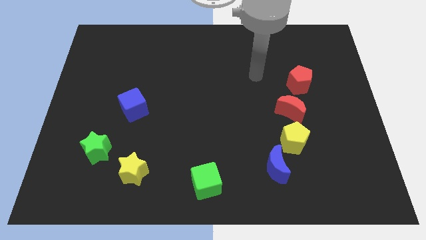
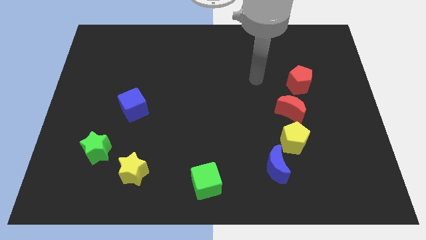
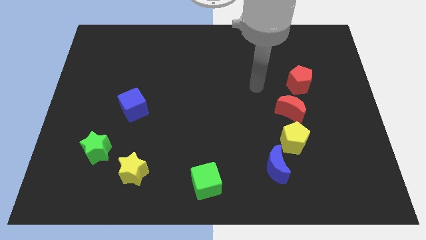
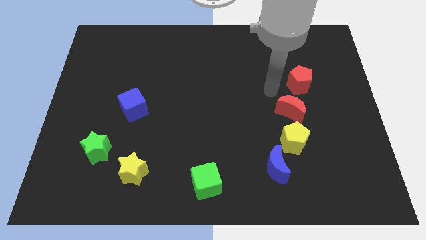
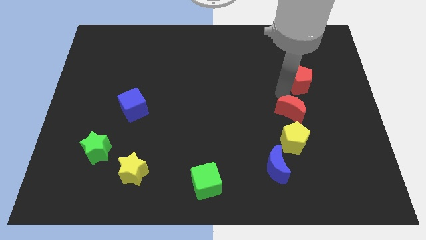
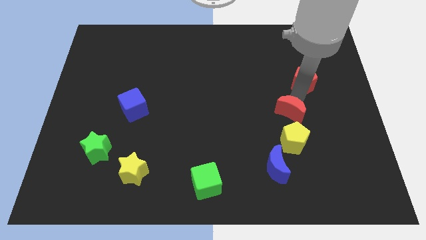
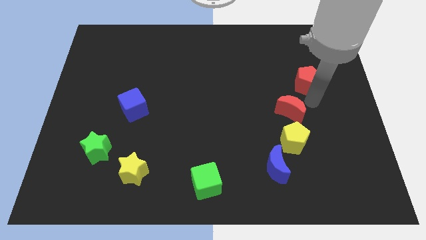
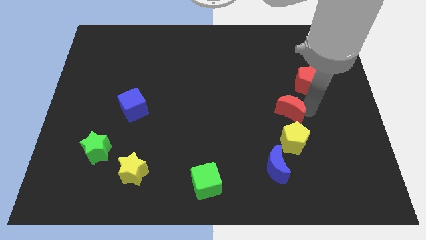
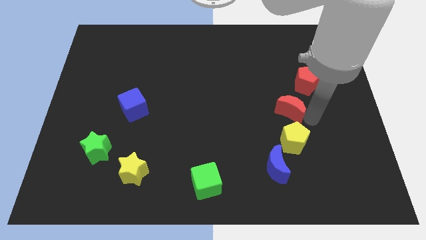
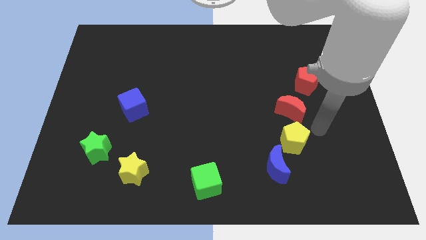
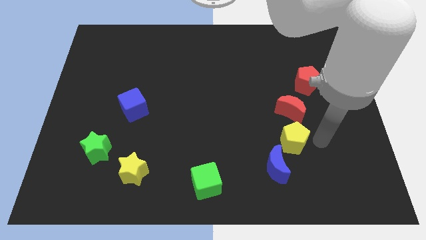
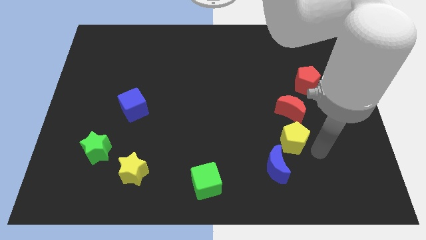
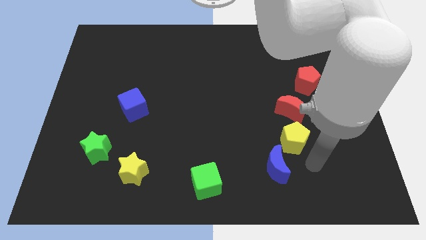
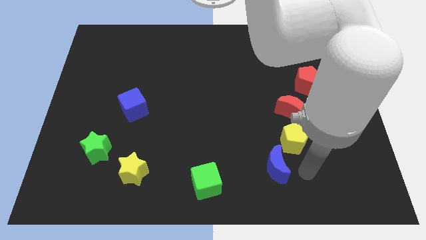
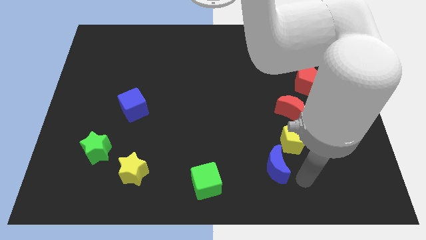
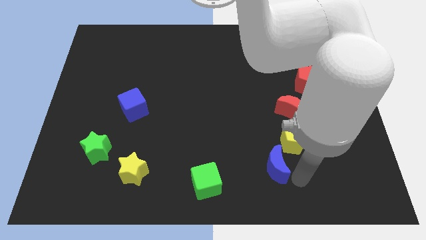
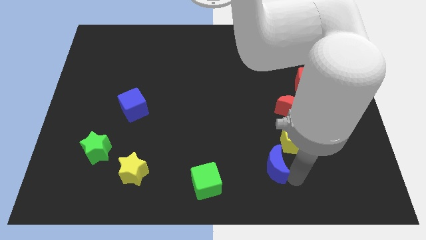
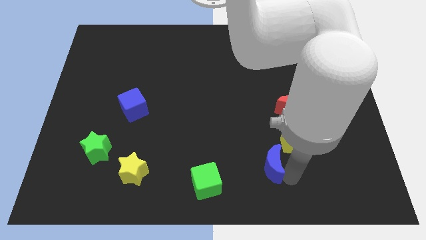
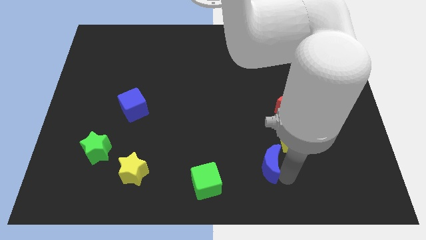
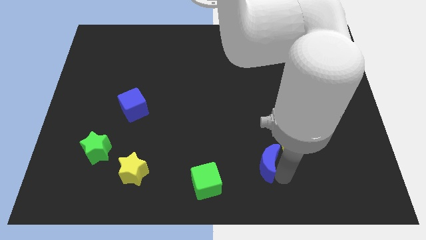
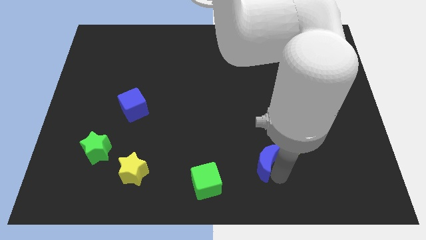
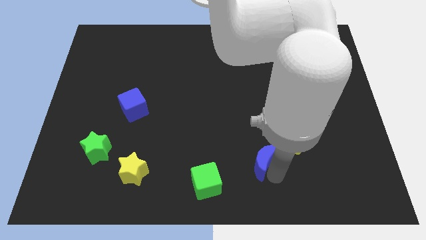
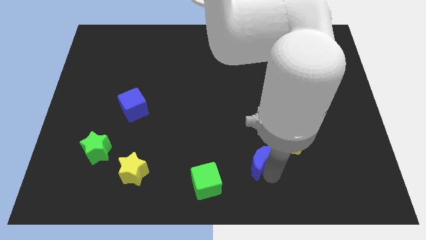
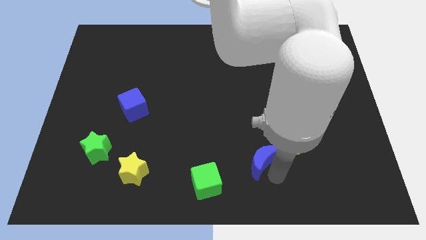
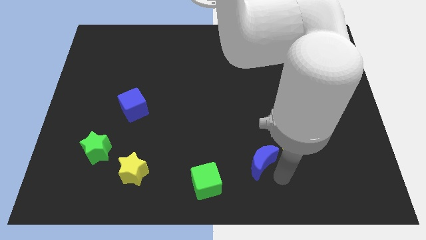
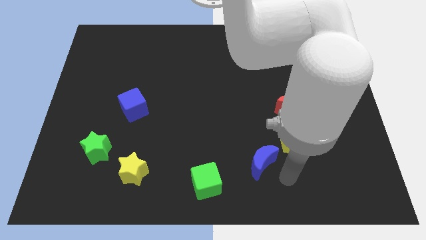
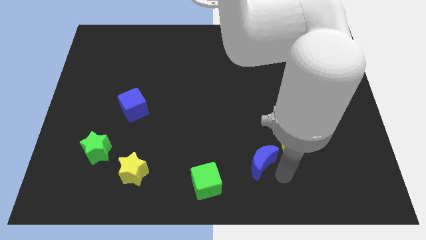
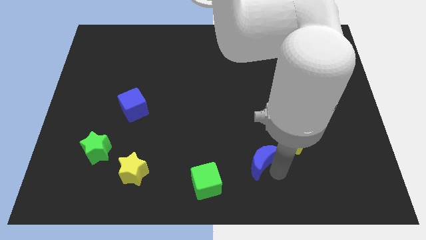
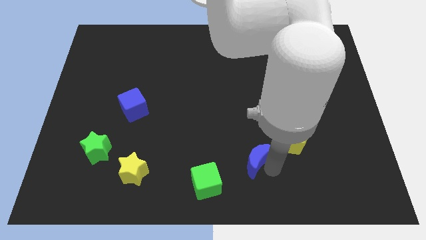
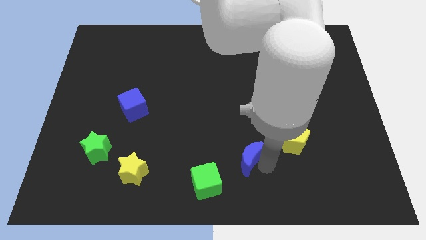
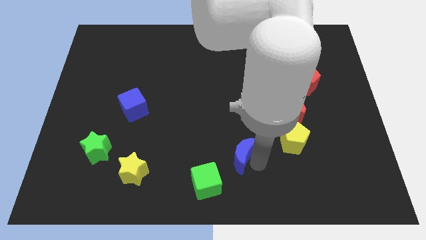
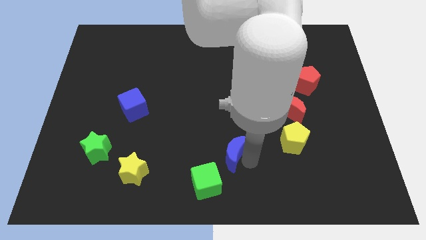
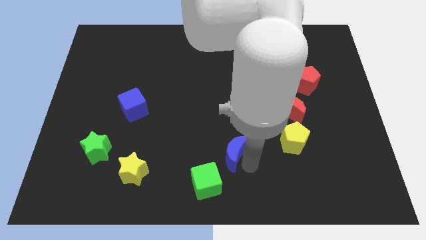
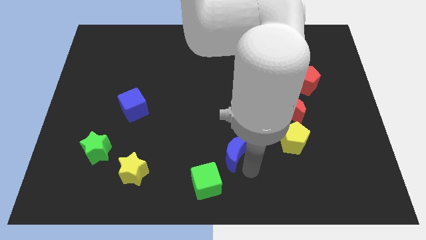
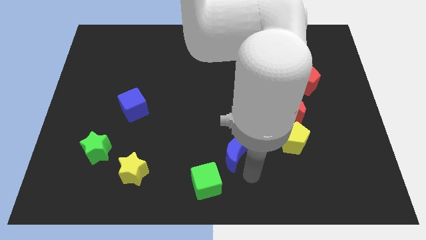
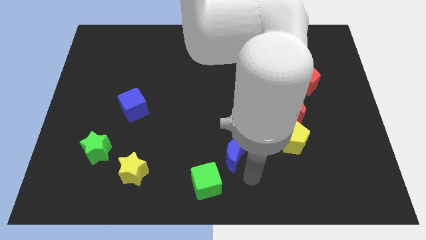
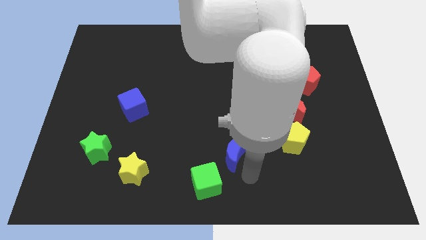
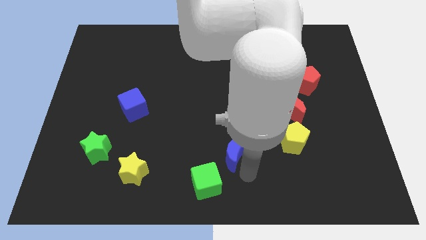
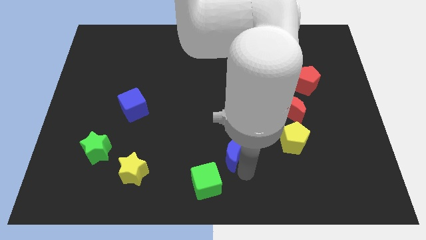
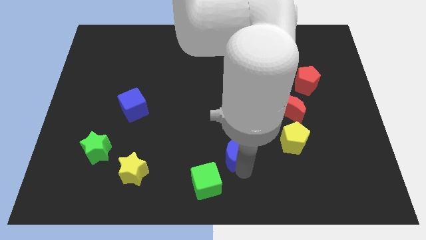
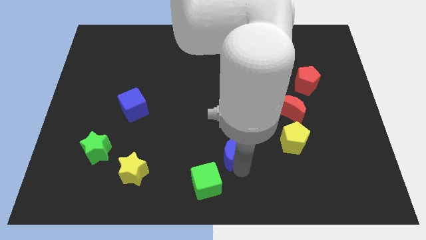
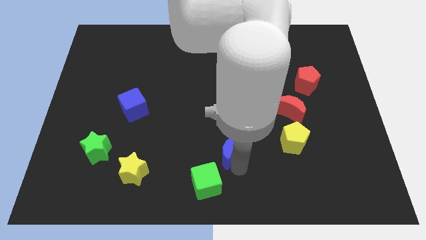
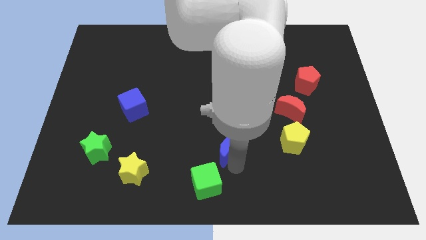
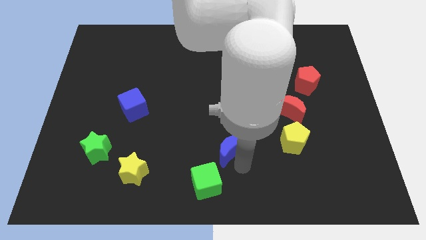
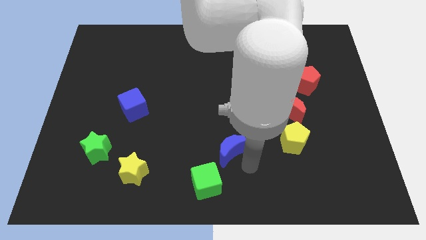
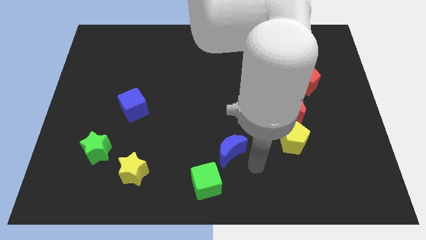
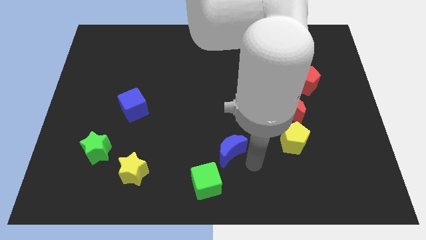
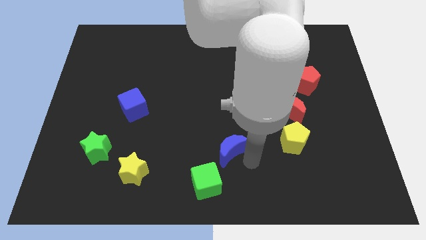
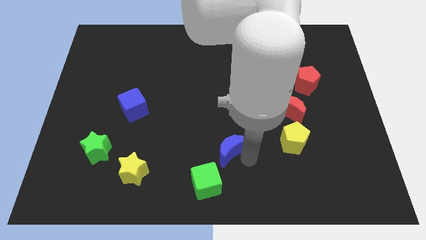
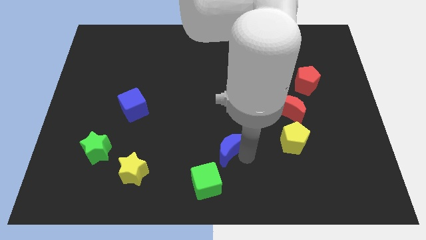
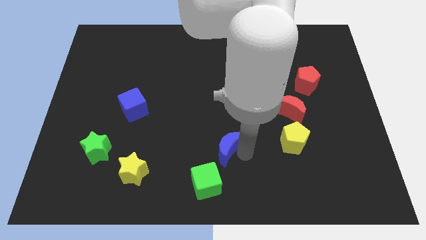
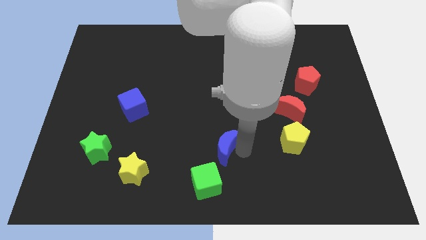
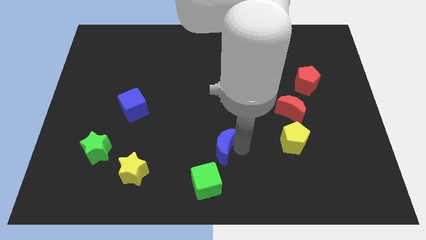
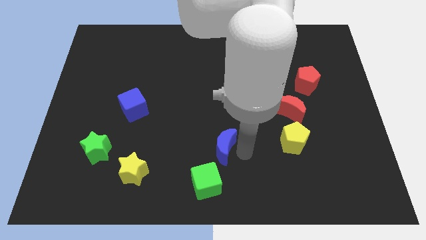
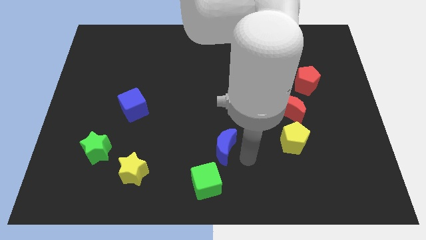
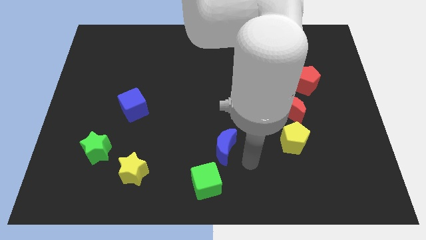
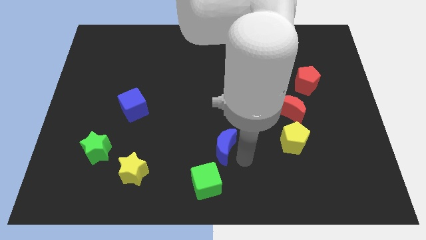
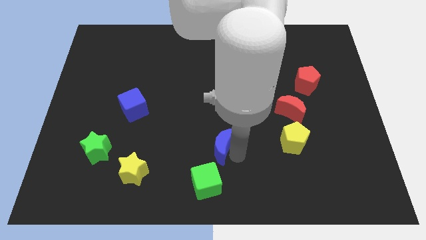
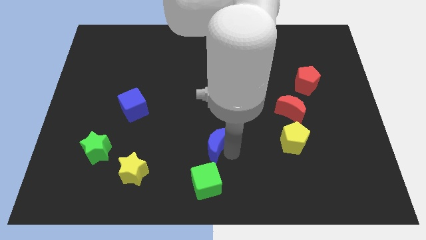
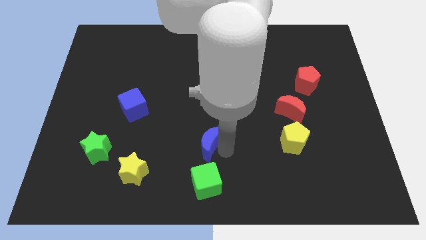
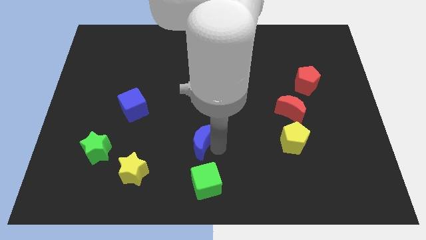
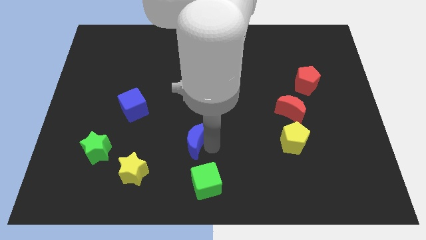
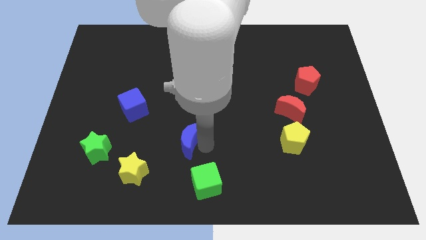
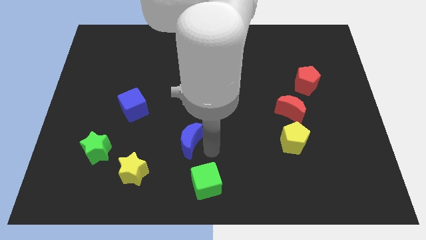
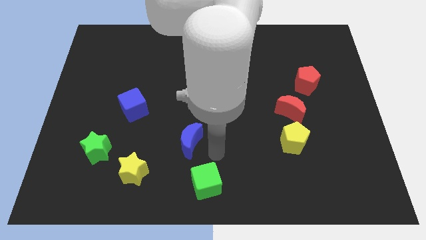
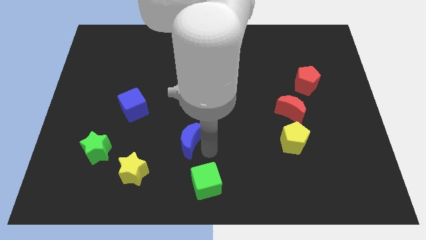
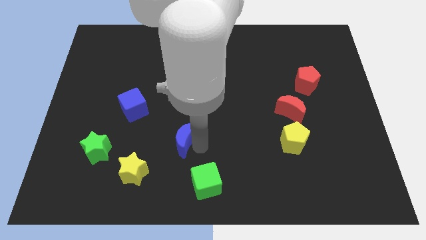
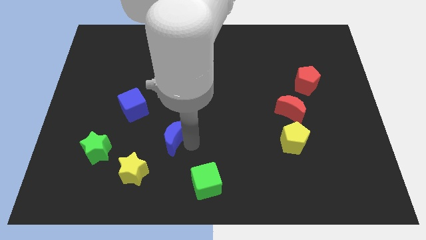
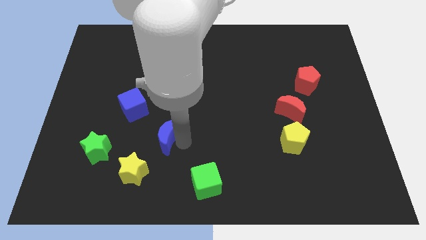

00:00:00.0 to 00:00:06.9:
slide the blue moon to the bottom right of the blue cube
